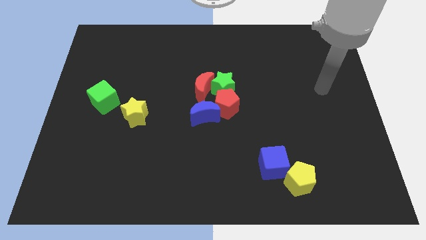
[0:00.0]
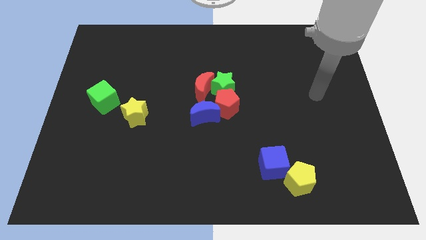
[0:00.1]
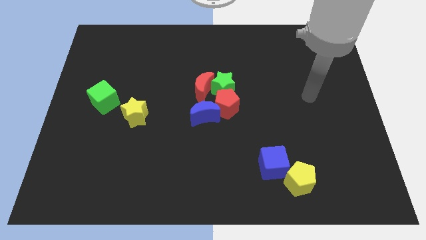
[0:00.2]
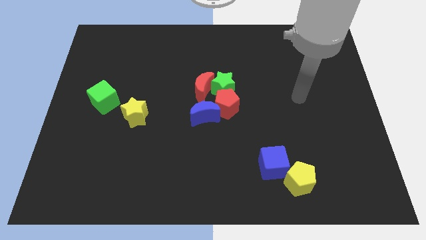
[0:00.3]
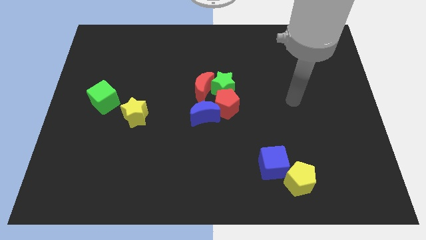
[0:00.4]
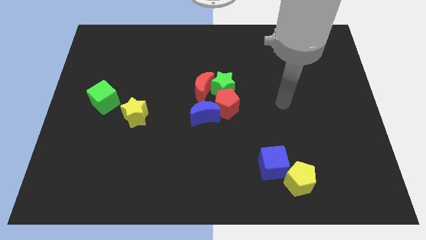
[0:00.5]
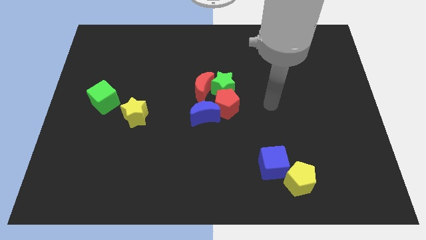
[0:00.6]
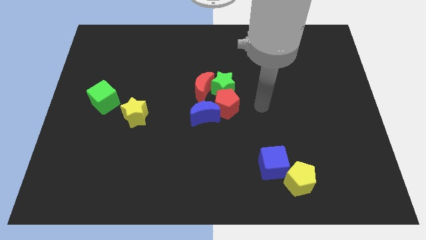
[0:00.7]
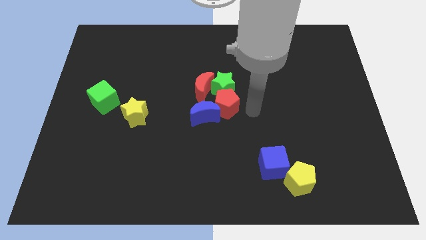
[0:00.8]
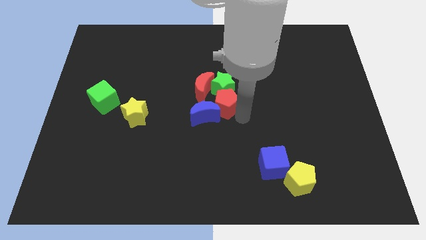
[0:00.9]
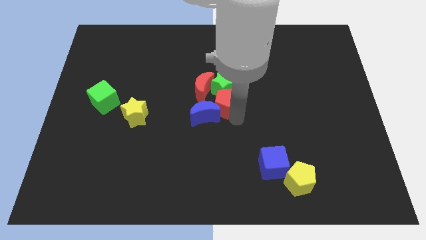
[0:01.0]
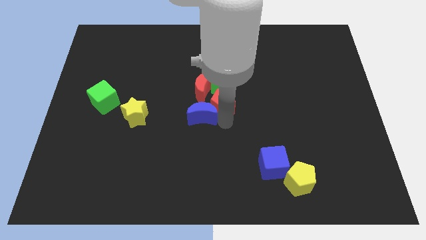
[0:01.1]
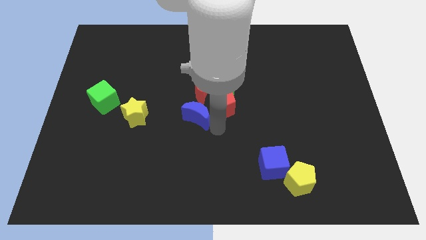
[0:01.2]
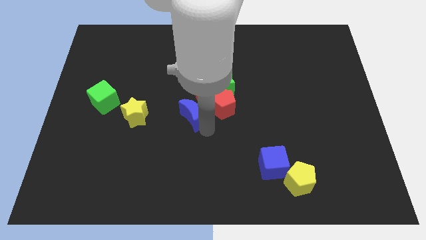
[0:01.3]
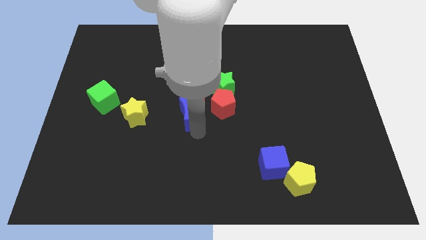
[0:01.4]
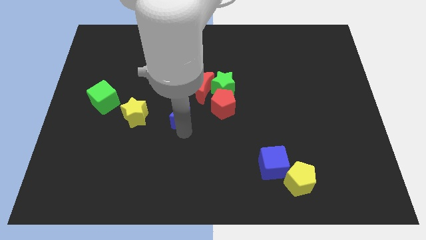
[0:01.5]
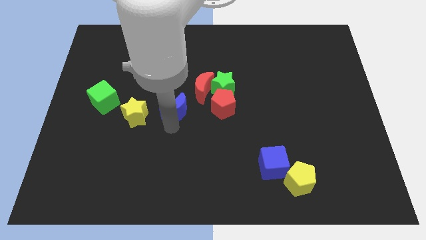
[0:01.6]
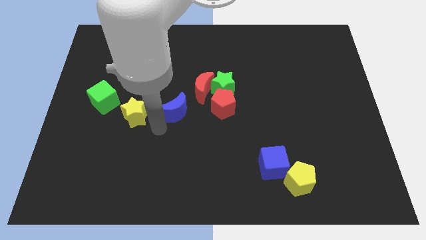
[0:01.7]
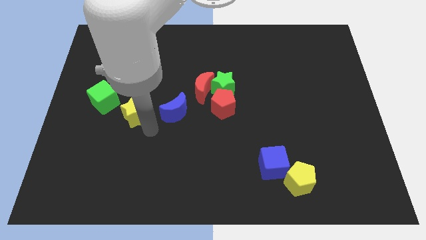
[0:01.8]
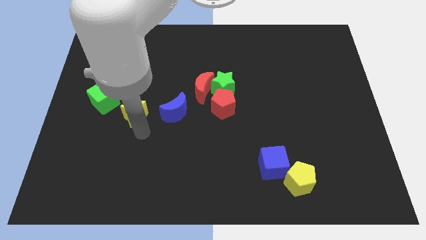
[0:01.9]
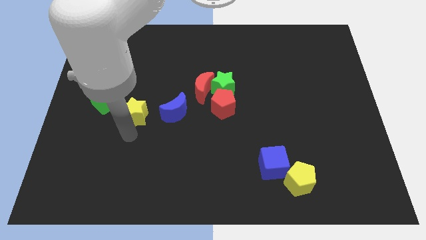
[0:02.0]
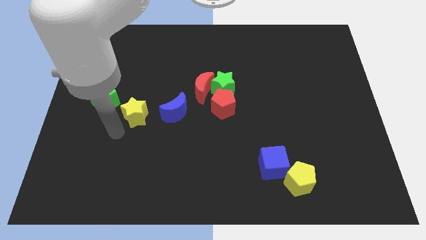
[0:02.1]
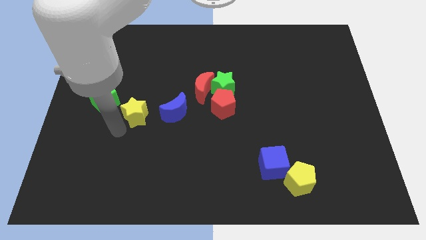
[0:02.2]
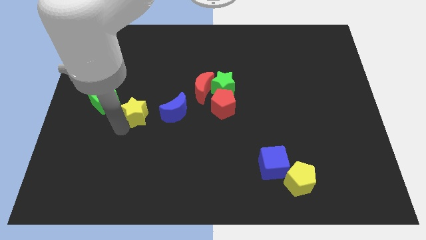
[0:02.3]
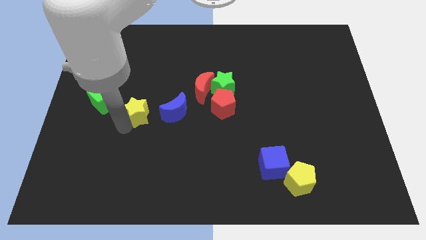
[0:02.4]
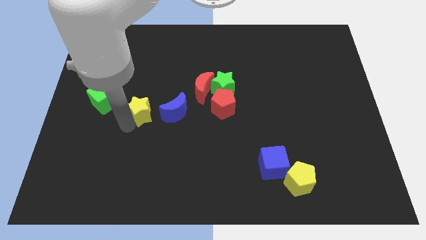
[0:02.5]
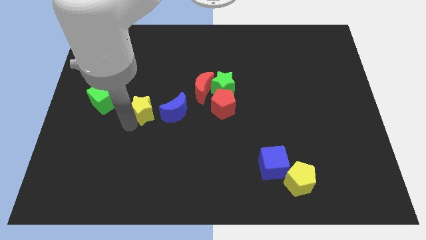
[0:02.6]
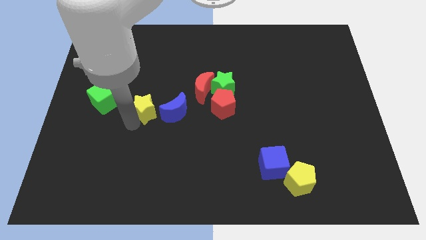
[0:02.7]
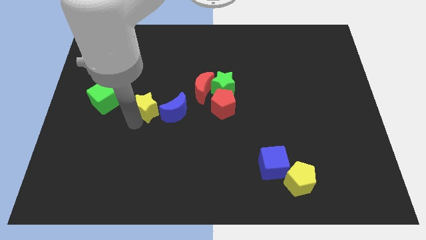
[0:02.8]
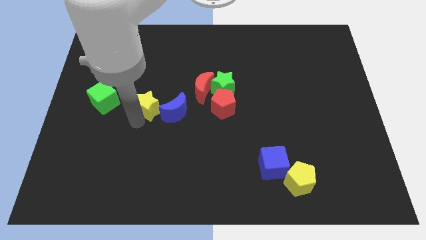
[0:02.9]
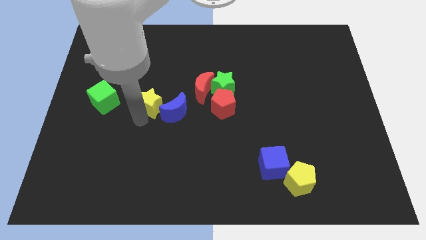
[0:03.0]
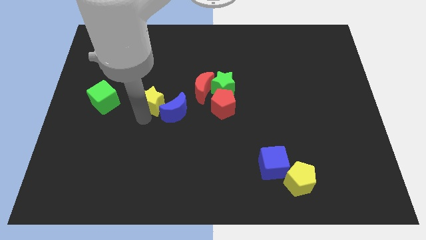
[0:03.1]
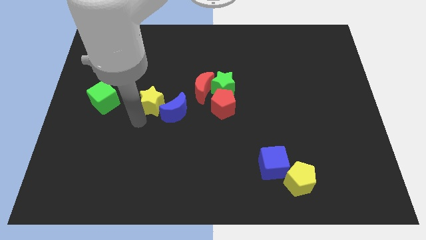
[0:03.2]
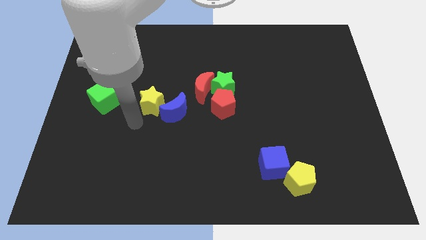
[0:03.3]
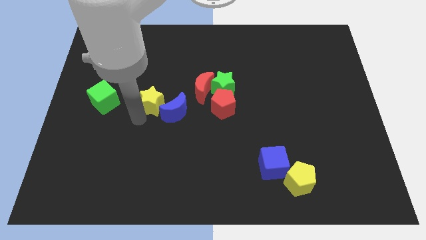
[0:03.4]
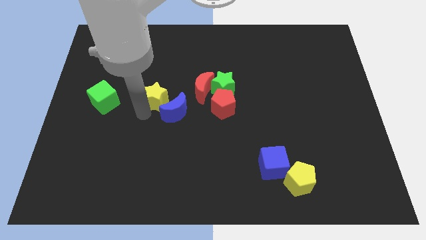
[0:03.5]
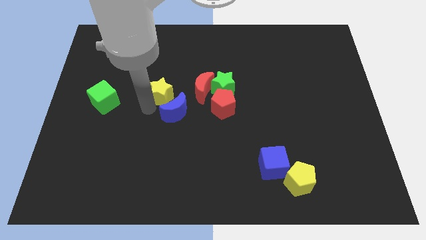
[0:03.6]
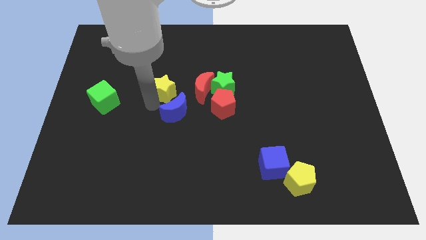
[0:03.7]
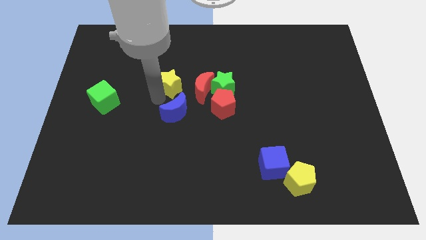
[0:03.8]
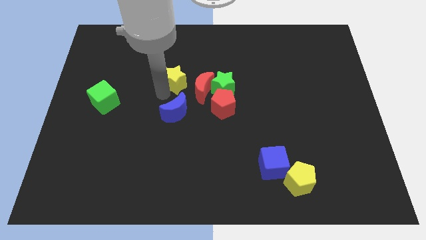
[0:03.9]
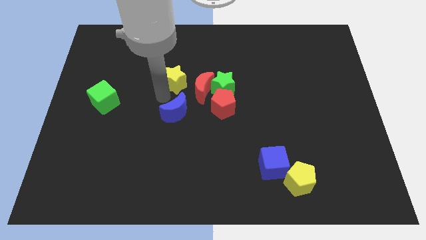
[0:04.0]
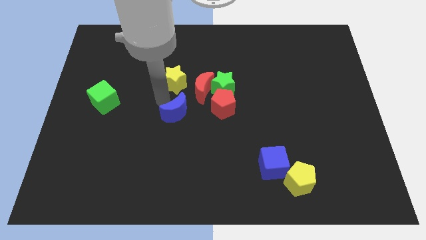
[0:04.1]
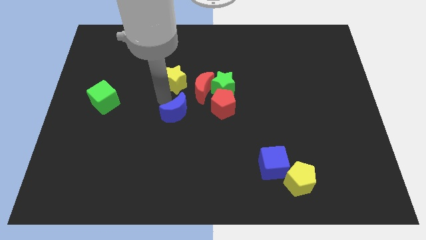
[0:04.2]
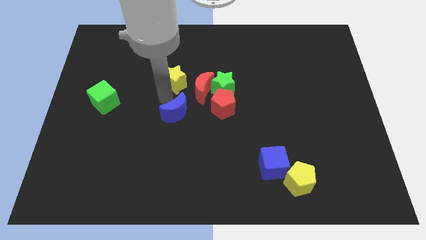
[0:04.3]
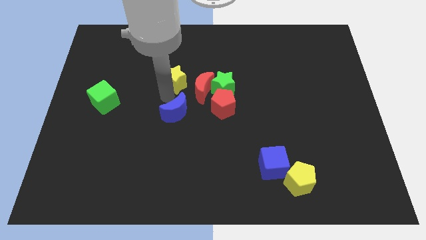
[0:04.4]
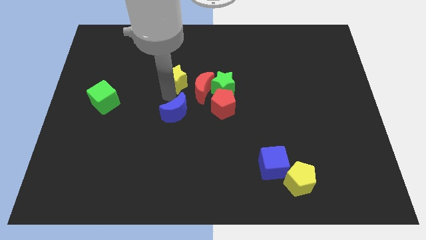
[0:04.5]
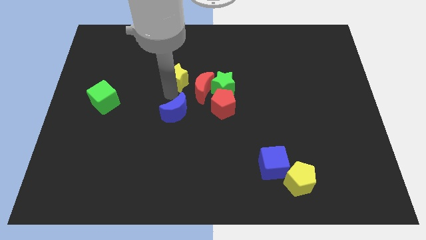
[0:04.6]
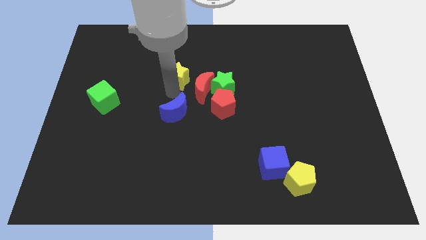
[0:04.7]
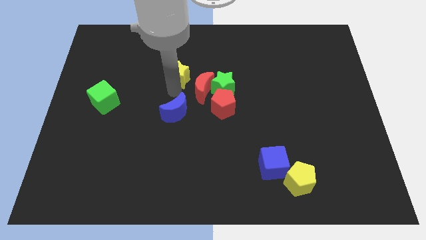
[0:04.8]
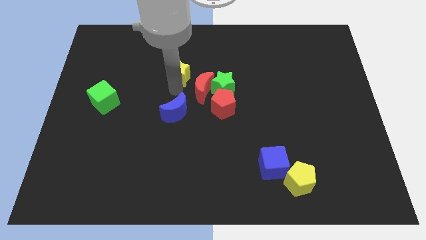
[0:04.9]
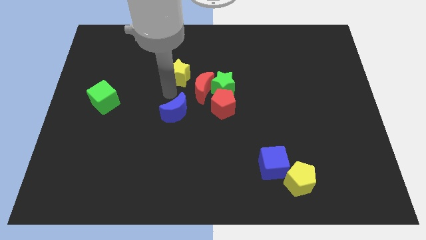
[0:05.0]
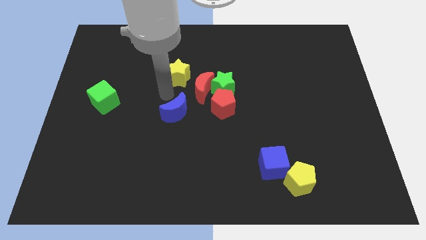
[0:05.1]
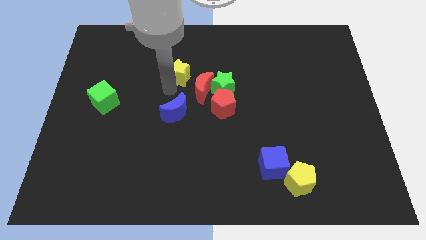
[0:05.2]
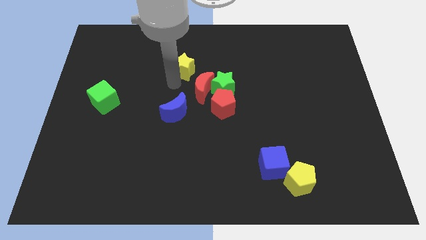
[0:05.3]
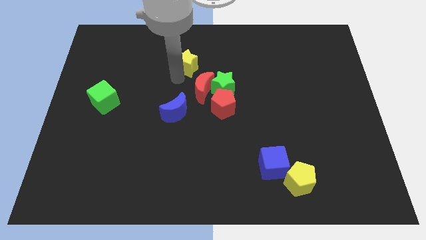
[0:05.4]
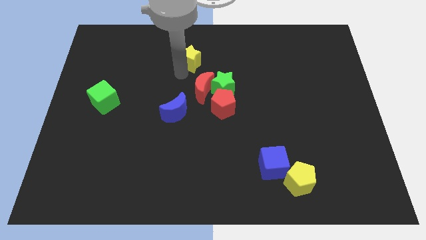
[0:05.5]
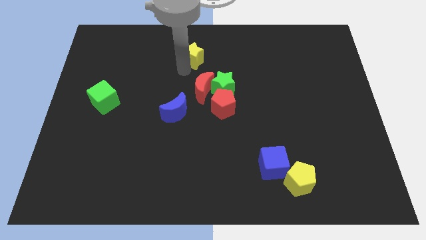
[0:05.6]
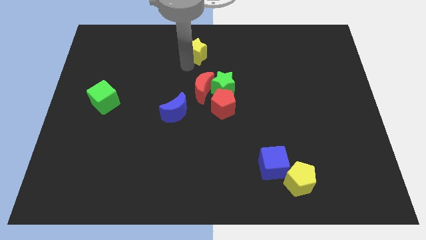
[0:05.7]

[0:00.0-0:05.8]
slide the yellow star to the towards your base

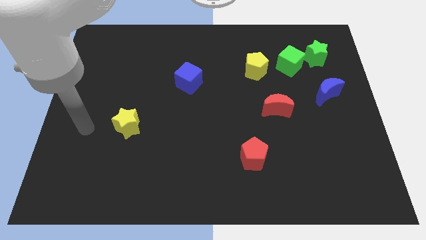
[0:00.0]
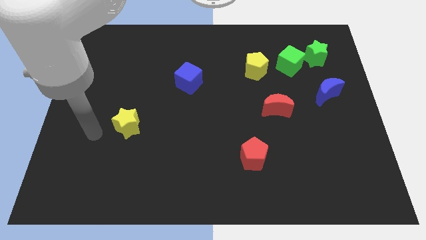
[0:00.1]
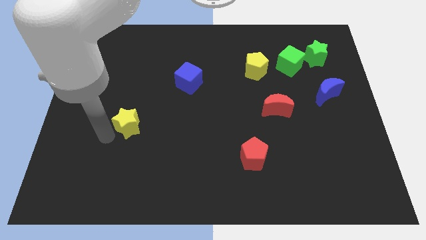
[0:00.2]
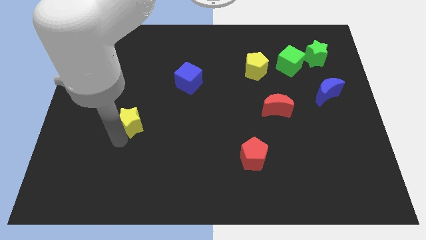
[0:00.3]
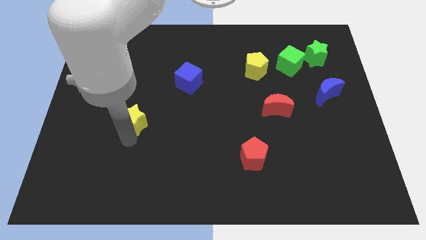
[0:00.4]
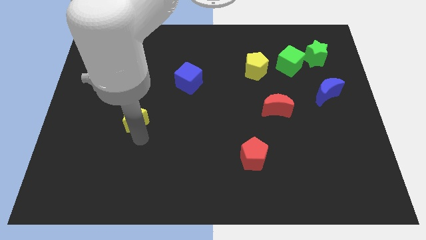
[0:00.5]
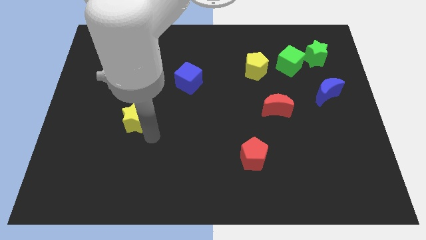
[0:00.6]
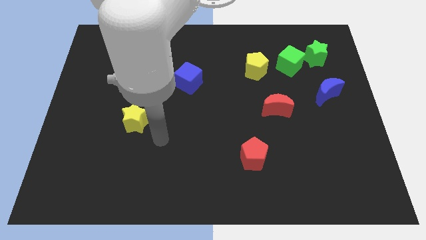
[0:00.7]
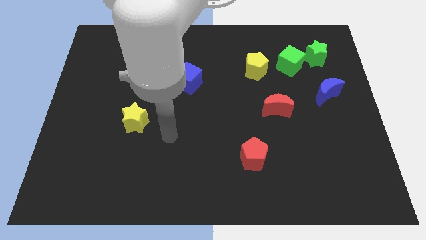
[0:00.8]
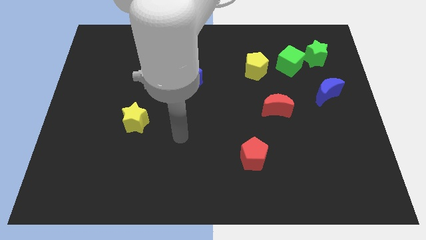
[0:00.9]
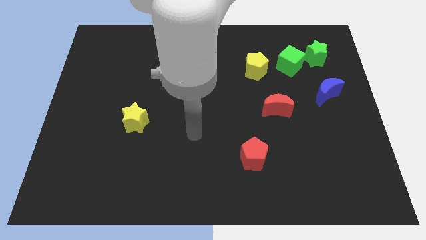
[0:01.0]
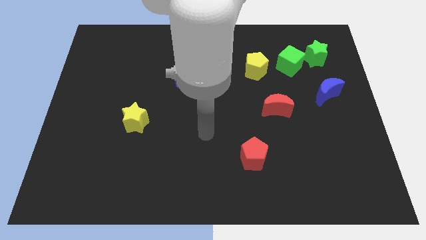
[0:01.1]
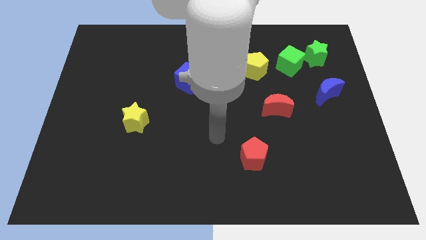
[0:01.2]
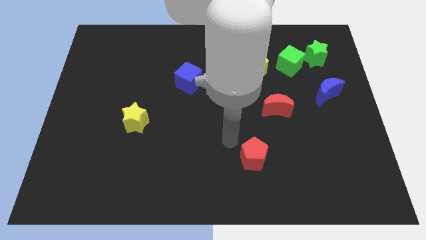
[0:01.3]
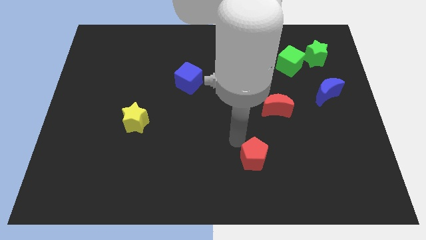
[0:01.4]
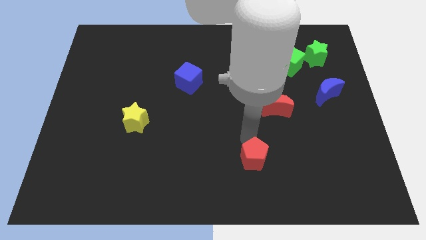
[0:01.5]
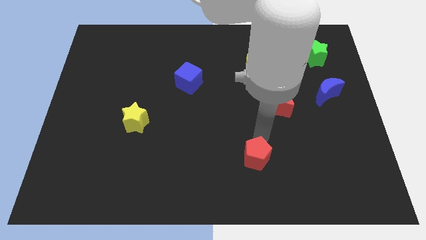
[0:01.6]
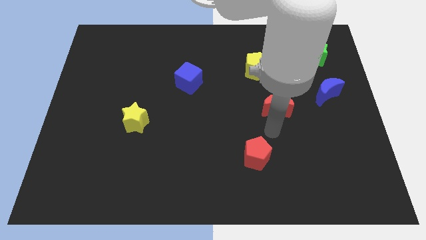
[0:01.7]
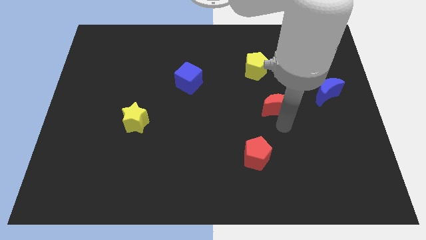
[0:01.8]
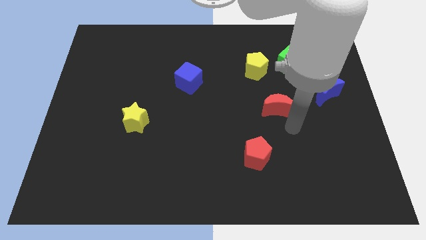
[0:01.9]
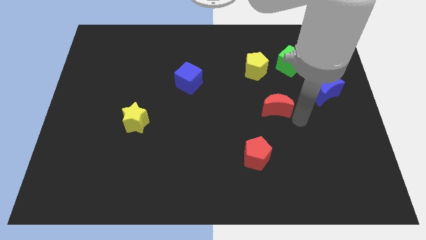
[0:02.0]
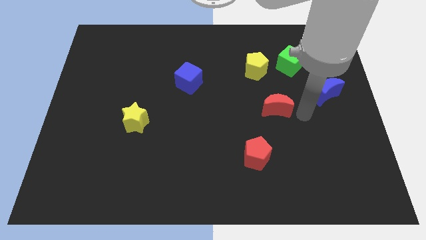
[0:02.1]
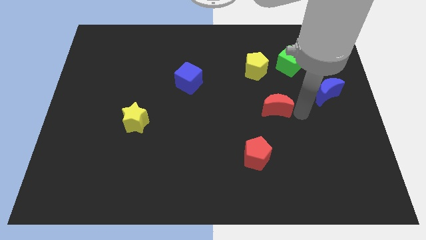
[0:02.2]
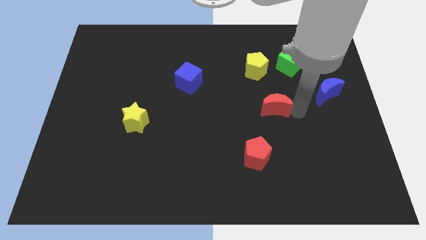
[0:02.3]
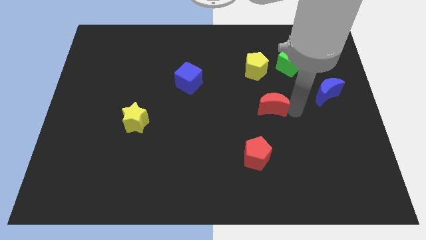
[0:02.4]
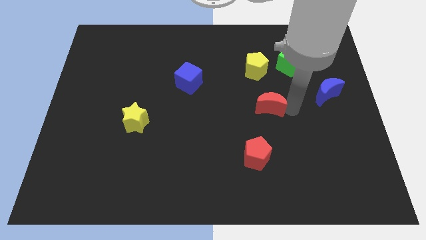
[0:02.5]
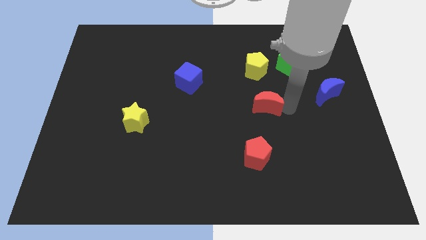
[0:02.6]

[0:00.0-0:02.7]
move the red moon to the center
